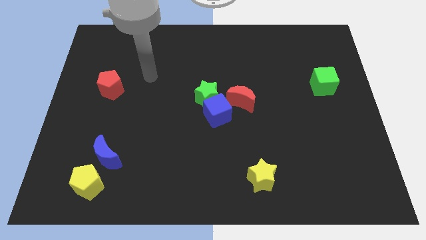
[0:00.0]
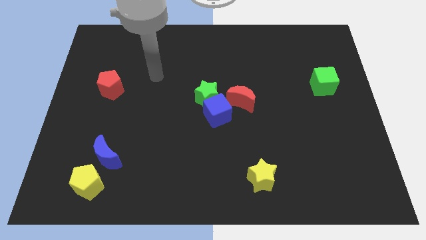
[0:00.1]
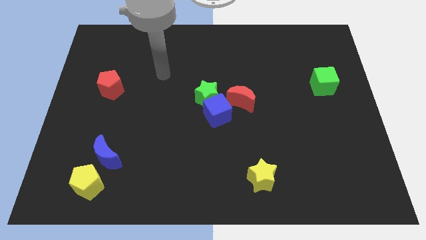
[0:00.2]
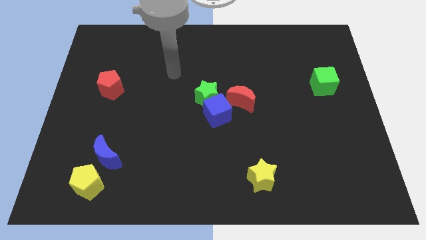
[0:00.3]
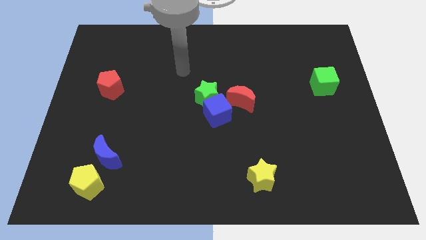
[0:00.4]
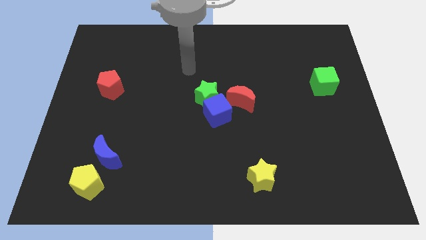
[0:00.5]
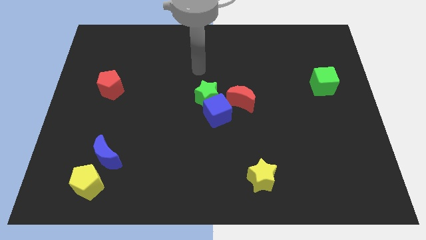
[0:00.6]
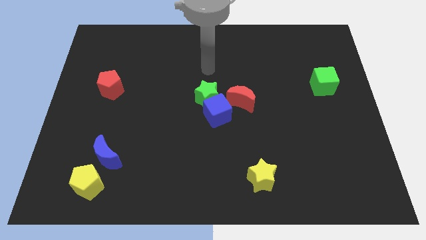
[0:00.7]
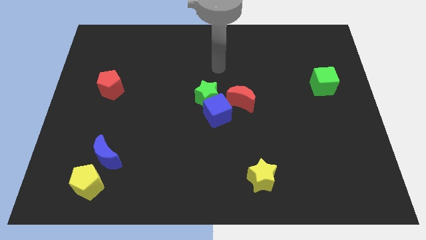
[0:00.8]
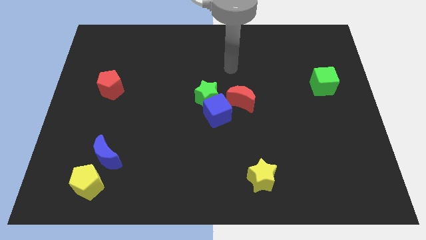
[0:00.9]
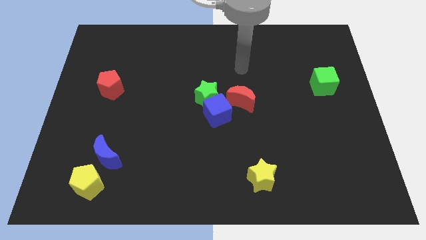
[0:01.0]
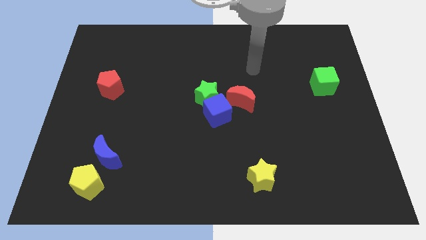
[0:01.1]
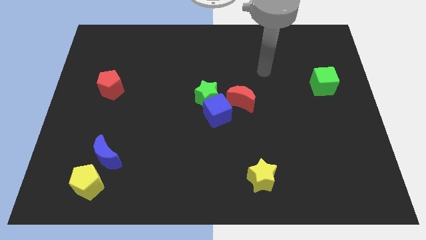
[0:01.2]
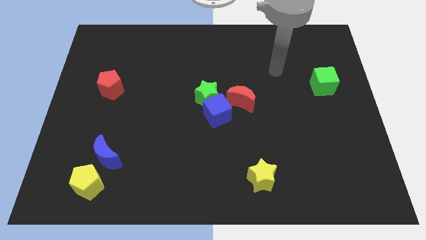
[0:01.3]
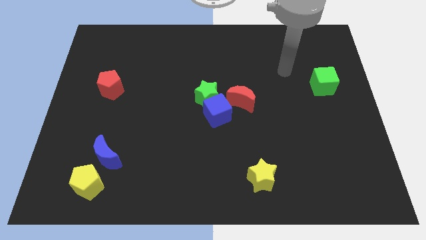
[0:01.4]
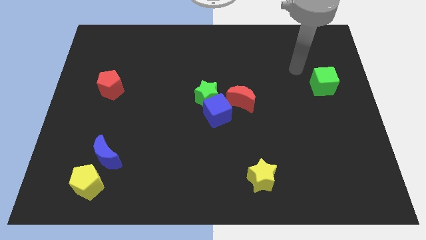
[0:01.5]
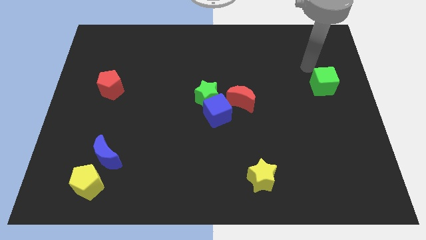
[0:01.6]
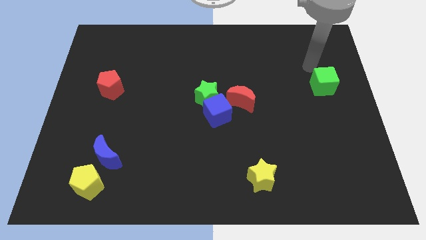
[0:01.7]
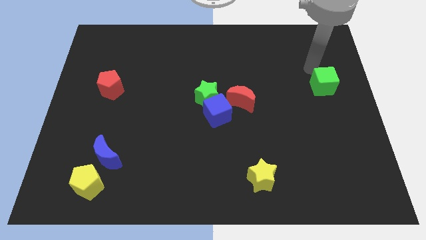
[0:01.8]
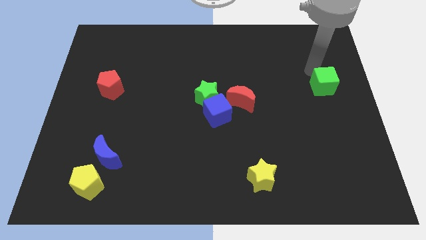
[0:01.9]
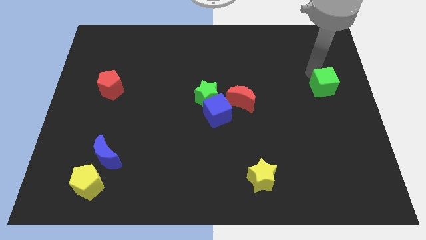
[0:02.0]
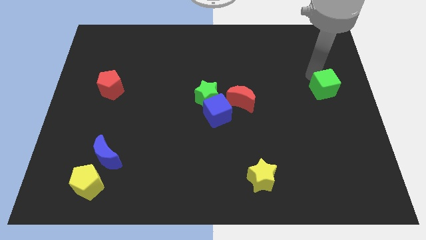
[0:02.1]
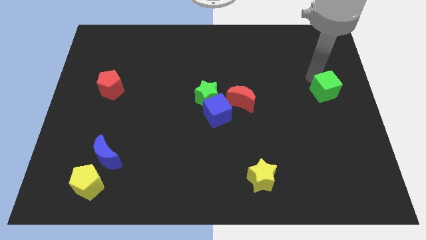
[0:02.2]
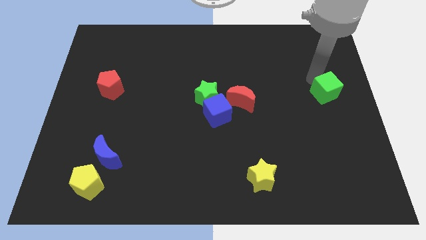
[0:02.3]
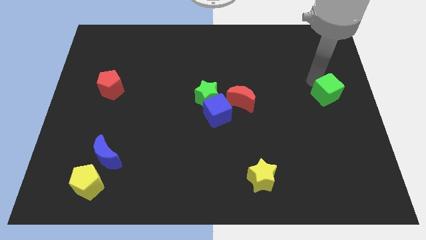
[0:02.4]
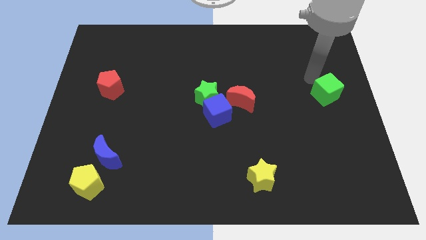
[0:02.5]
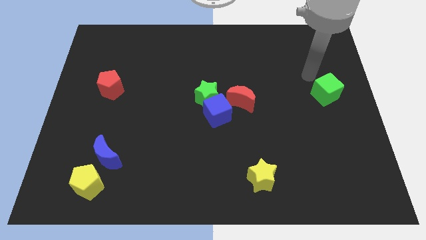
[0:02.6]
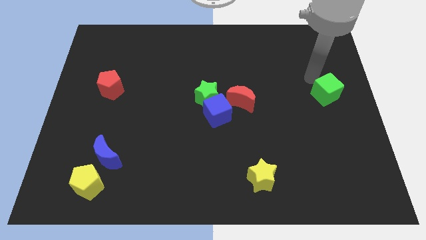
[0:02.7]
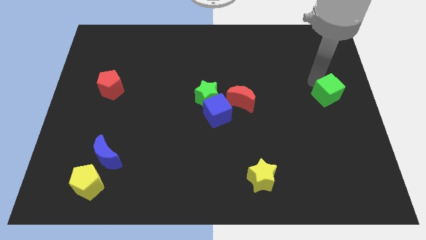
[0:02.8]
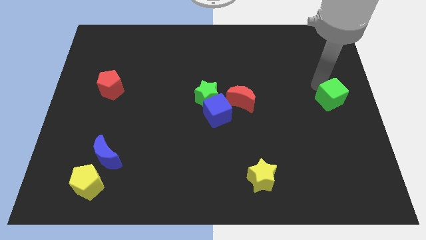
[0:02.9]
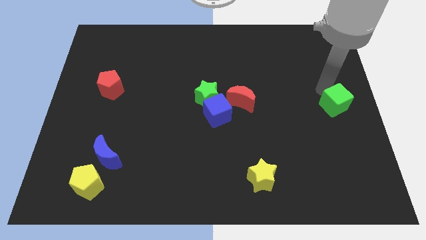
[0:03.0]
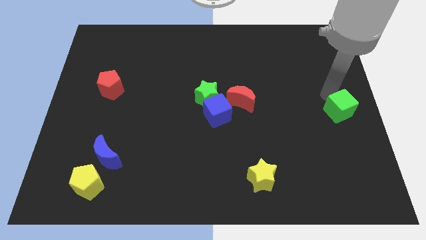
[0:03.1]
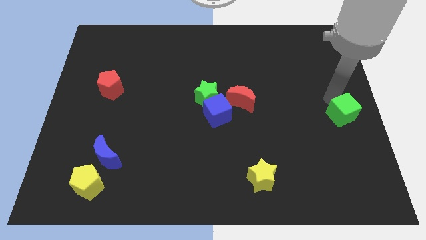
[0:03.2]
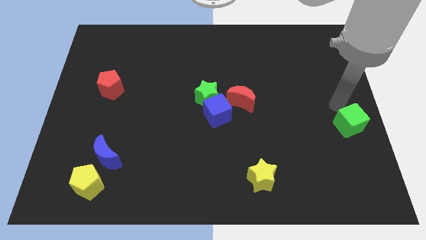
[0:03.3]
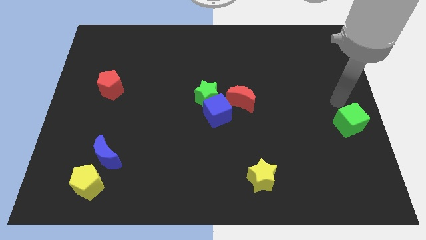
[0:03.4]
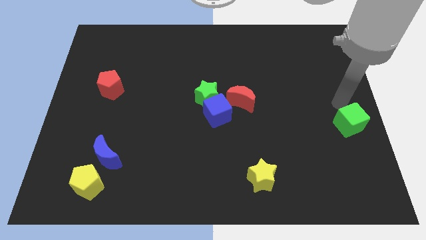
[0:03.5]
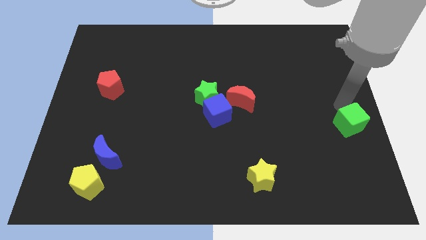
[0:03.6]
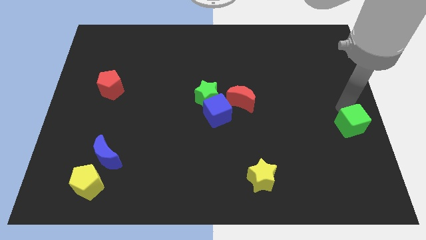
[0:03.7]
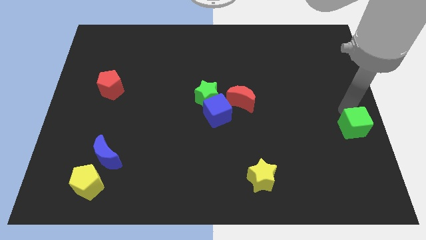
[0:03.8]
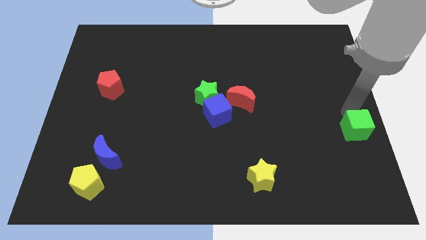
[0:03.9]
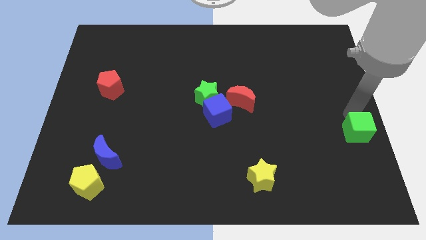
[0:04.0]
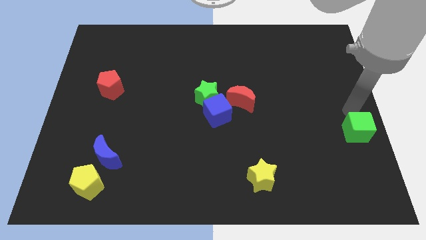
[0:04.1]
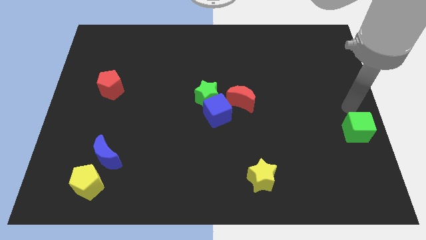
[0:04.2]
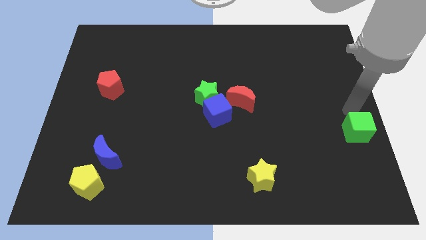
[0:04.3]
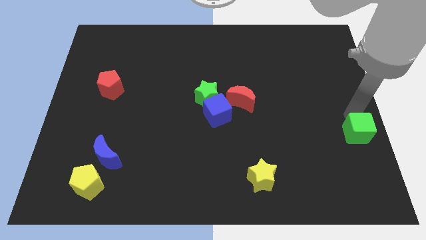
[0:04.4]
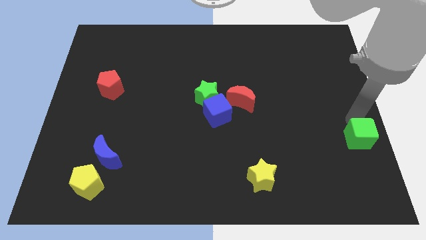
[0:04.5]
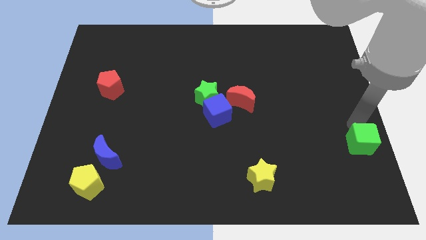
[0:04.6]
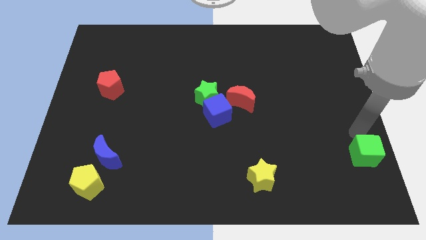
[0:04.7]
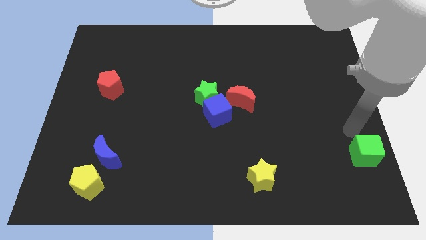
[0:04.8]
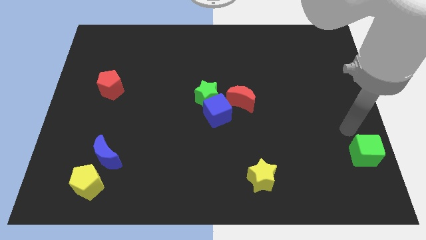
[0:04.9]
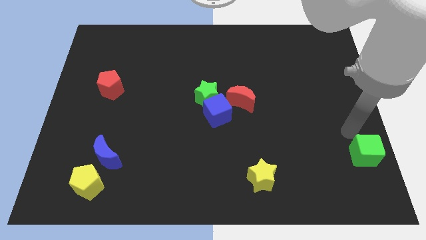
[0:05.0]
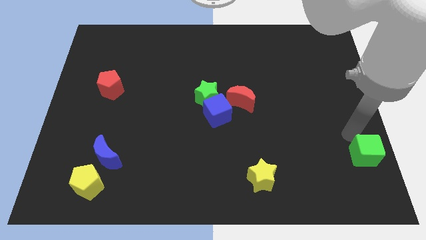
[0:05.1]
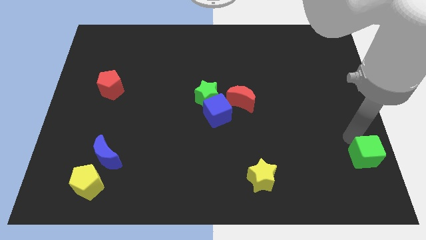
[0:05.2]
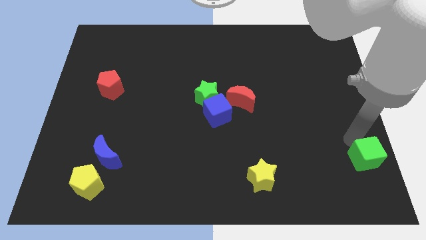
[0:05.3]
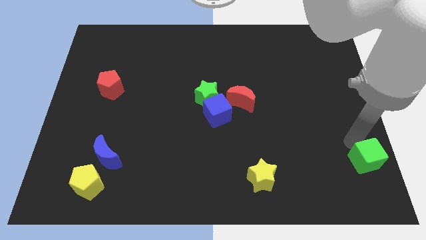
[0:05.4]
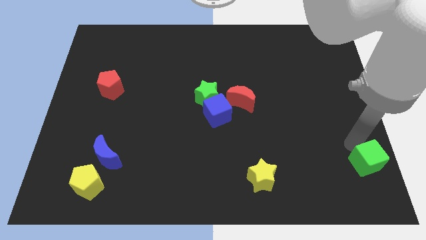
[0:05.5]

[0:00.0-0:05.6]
move the green cube to the bottom right
